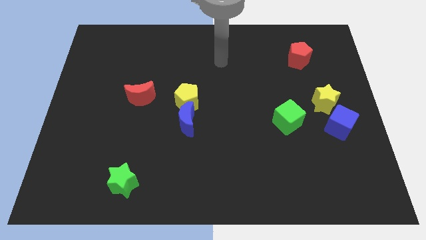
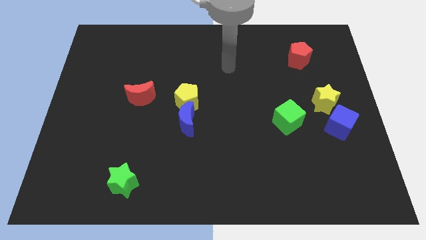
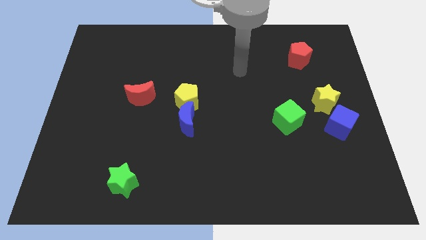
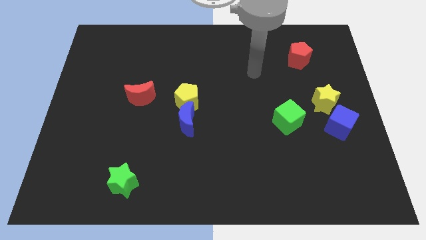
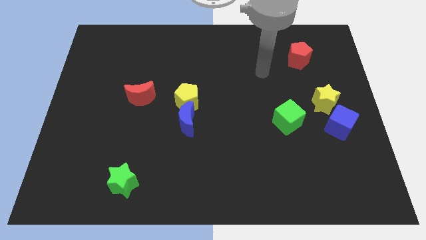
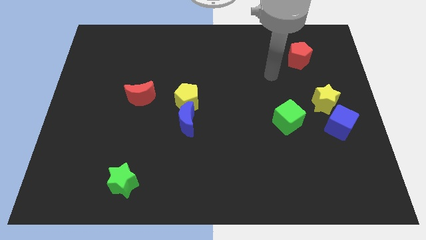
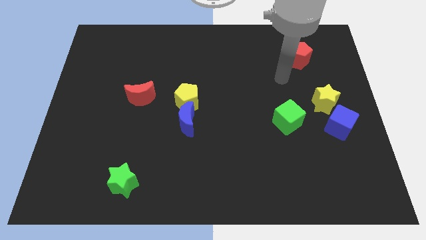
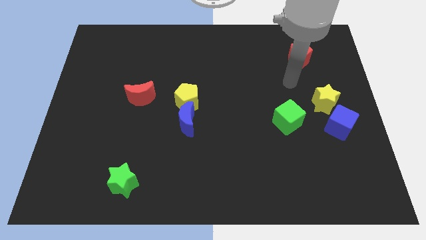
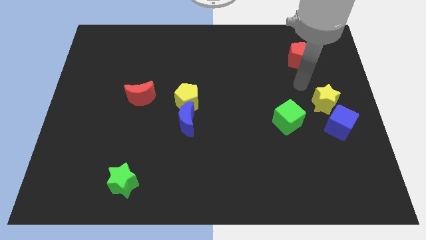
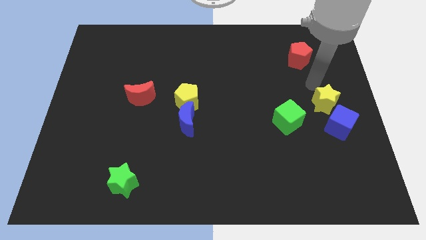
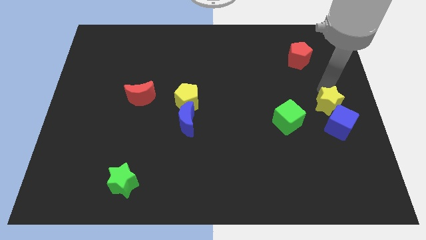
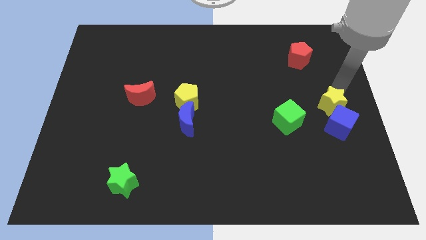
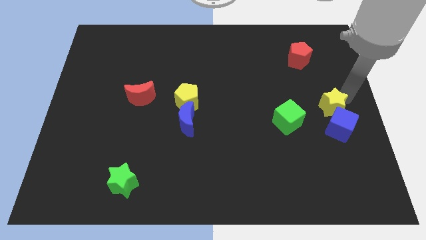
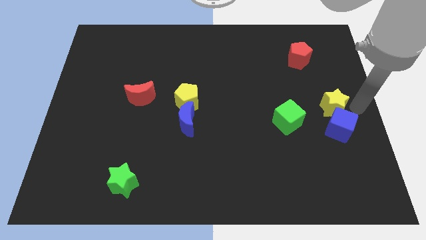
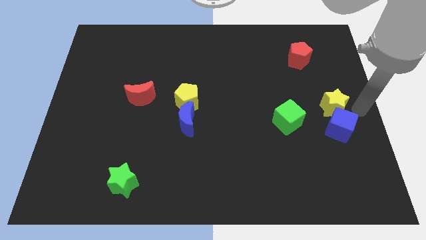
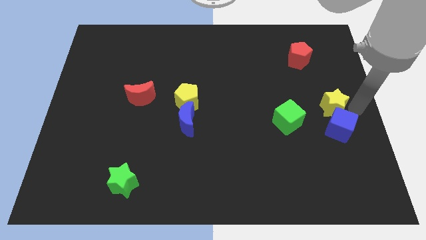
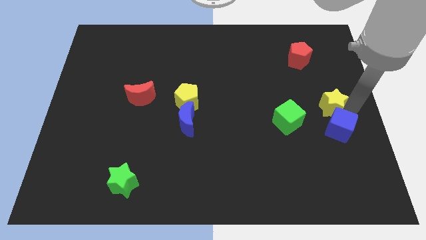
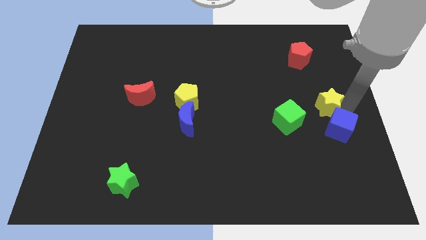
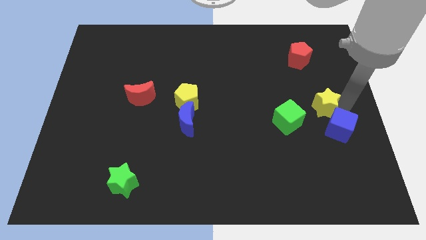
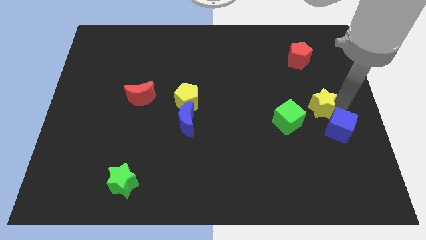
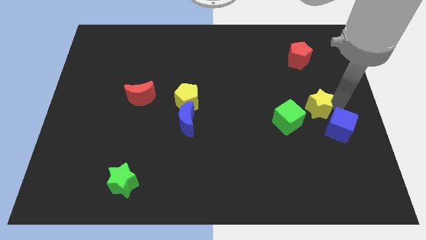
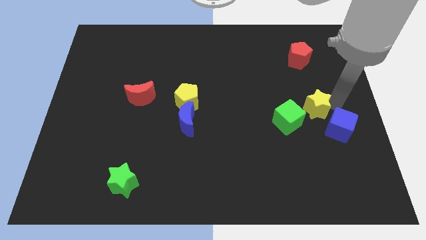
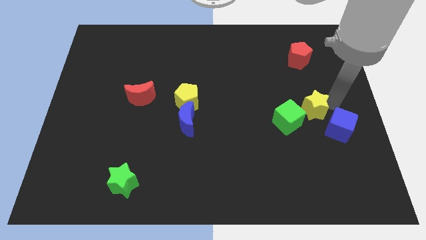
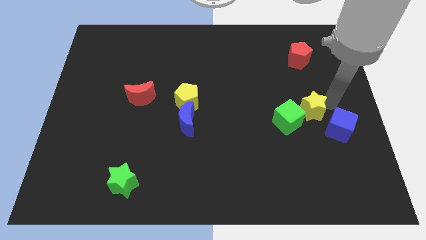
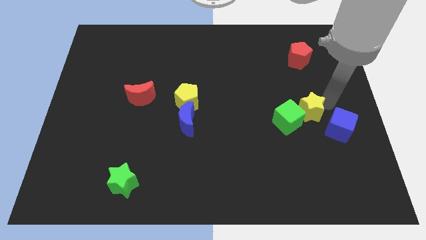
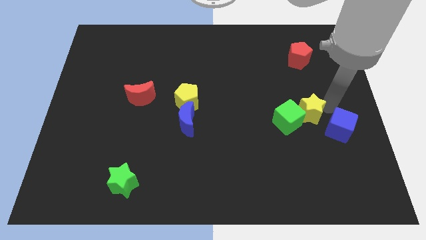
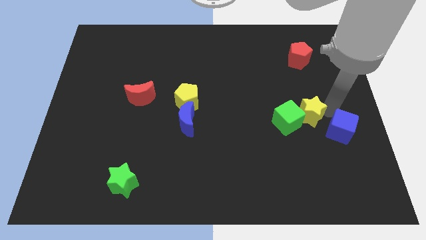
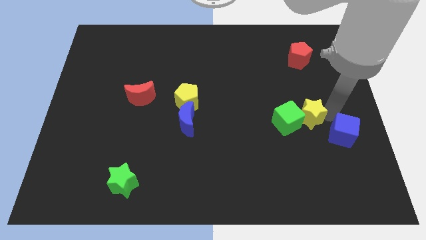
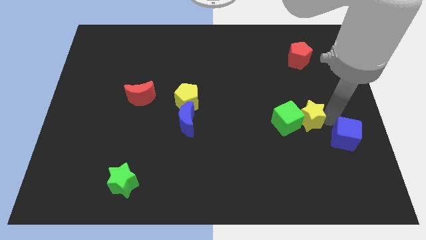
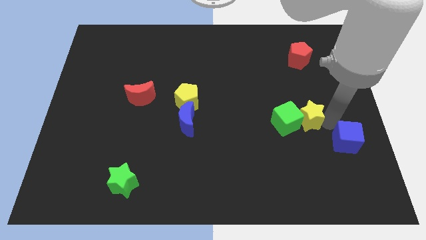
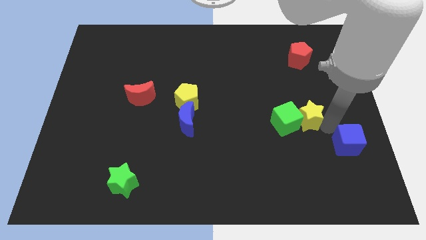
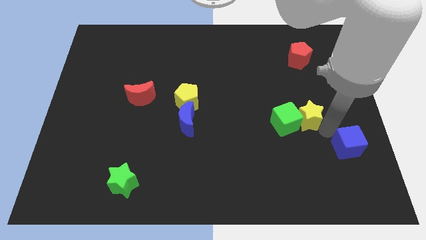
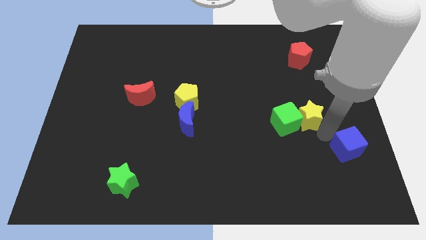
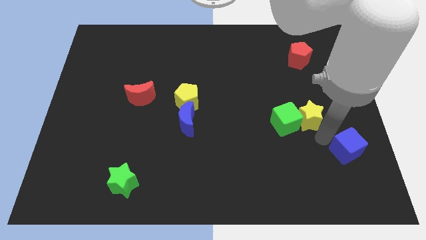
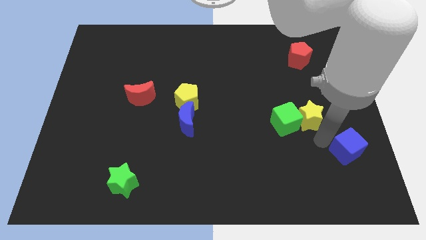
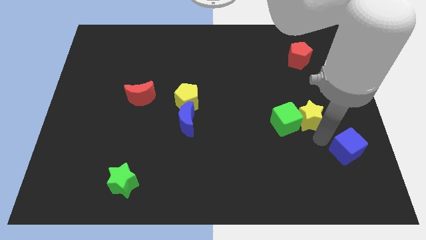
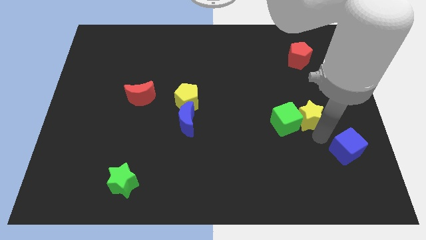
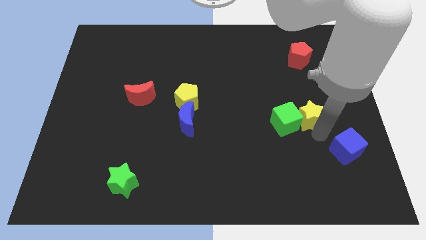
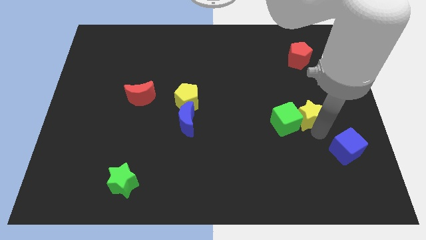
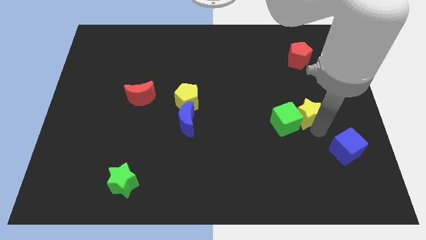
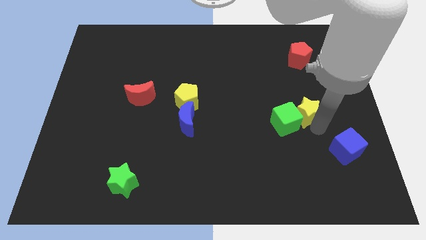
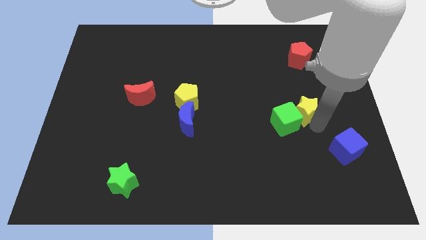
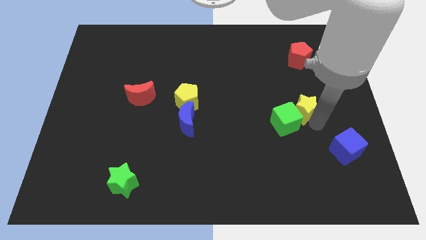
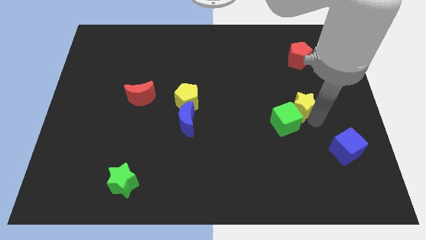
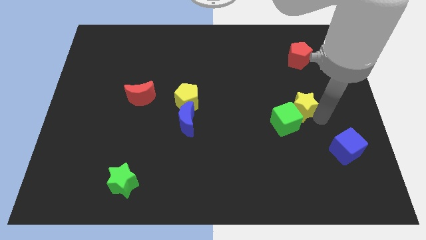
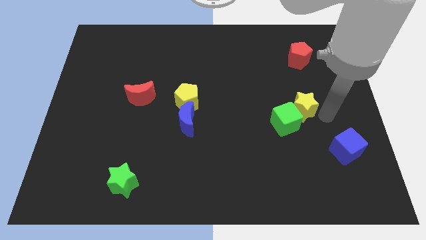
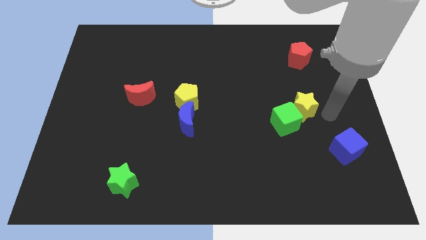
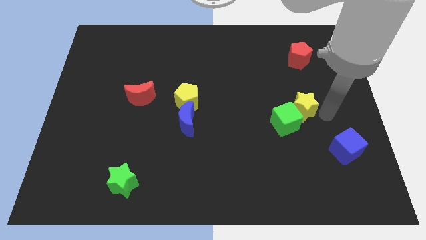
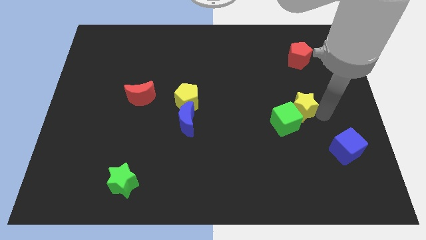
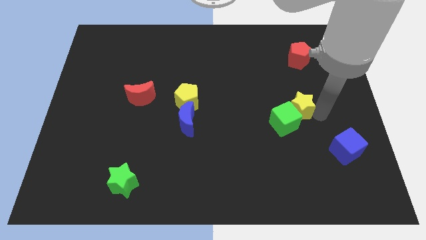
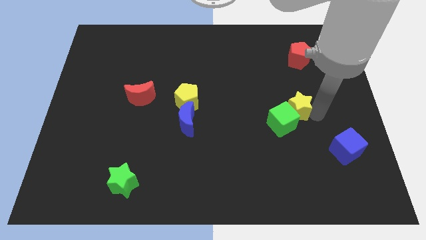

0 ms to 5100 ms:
move the yellow star to the left slightly

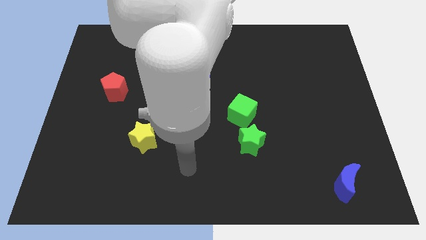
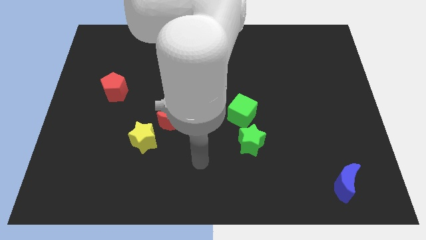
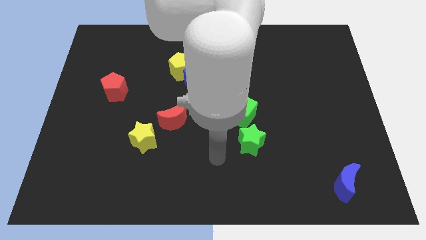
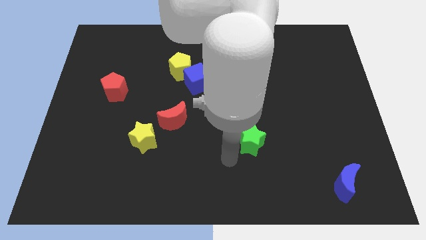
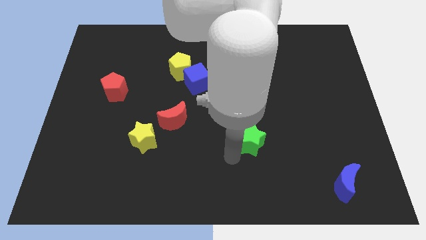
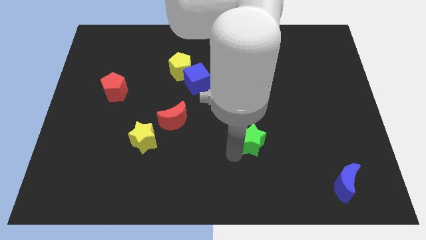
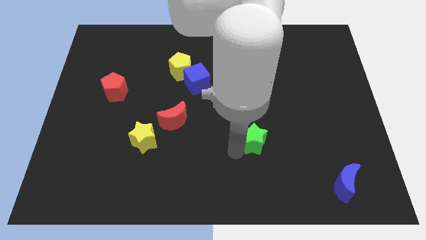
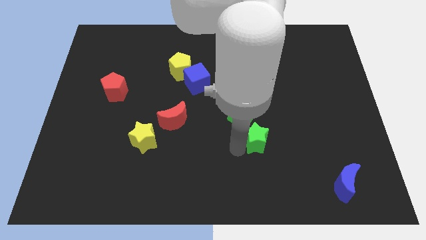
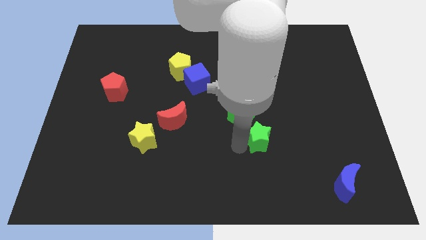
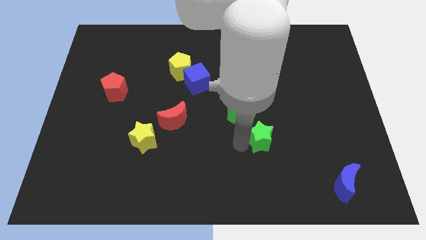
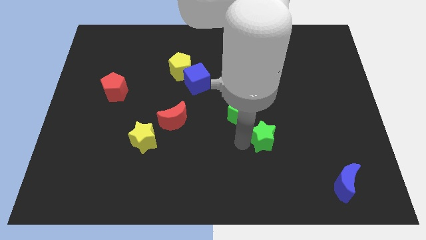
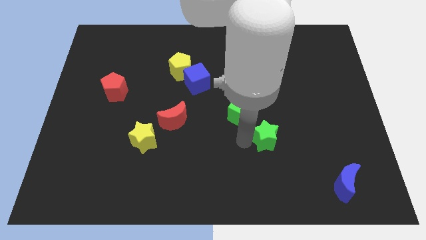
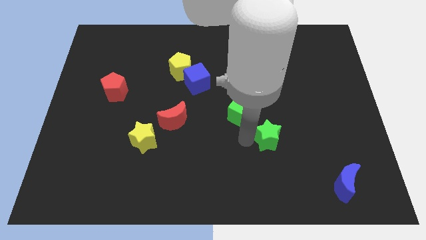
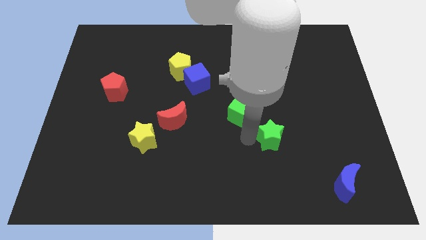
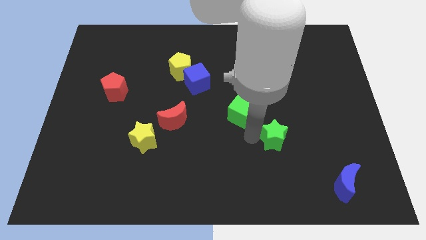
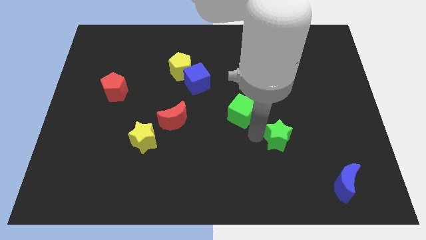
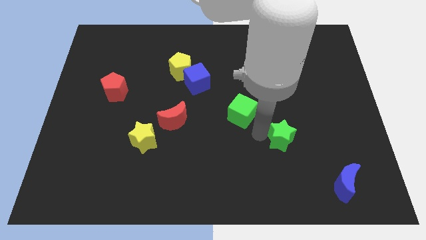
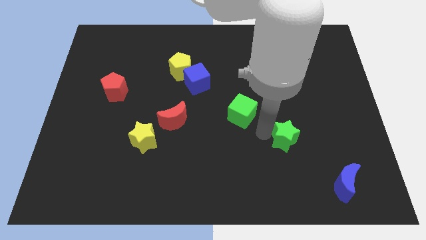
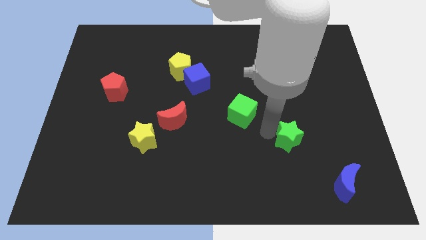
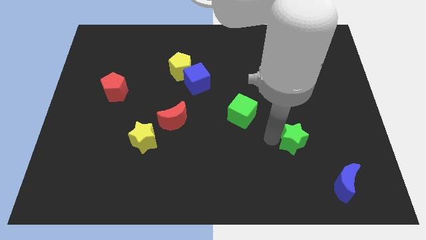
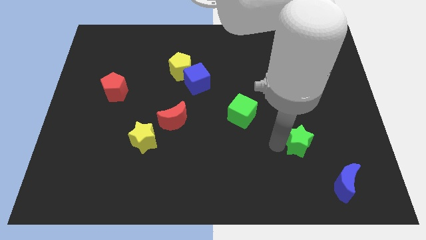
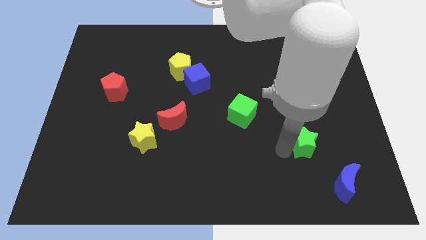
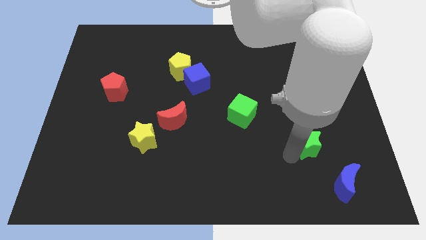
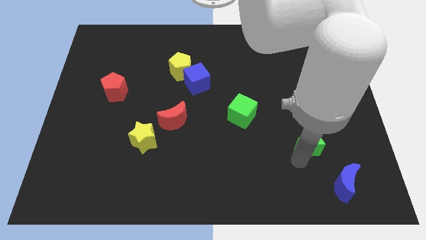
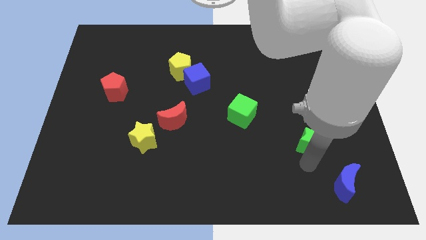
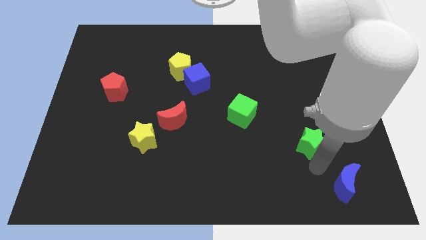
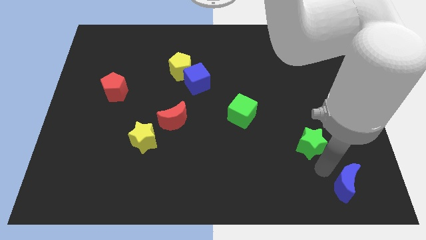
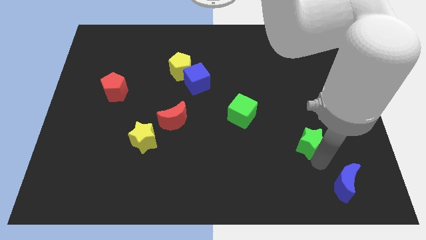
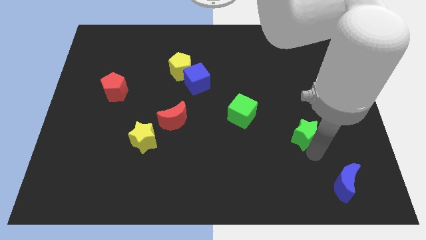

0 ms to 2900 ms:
slide the green star upwards and then to the right somewhat
